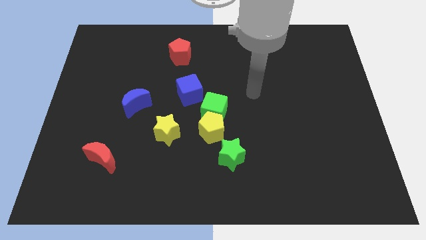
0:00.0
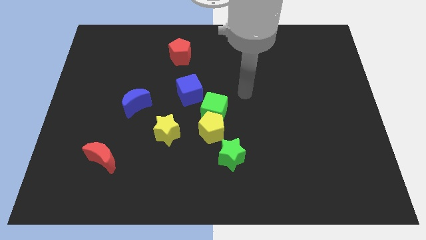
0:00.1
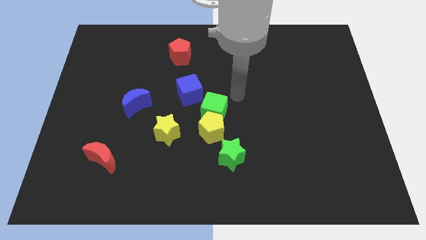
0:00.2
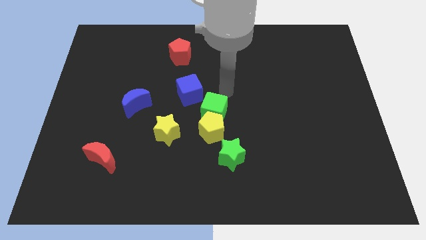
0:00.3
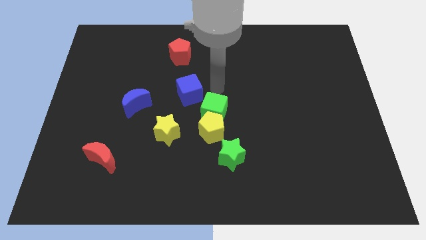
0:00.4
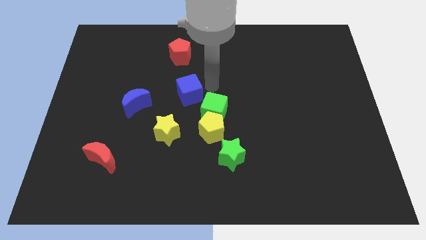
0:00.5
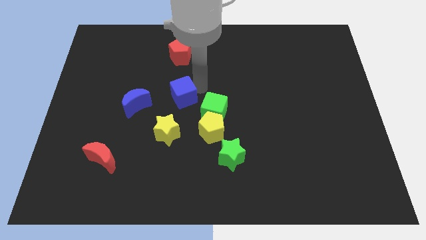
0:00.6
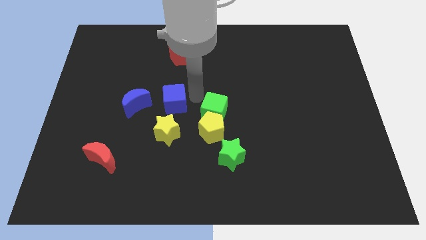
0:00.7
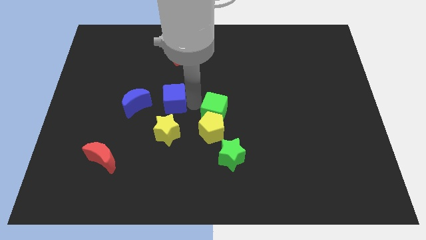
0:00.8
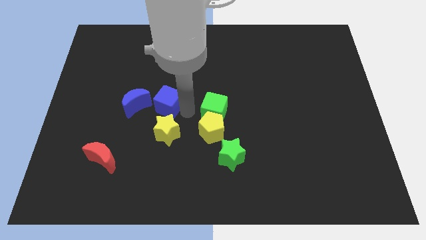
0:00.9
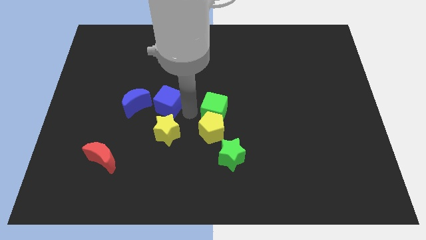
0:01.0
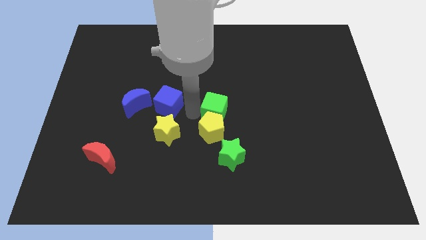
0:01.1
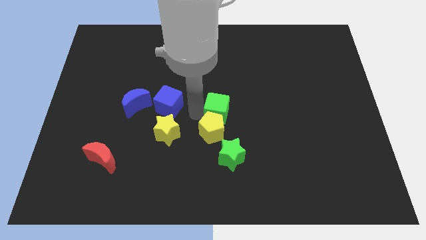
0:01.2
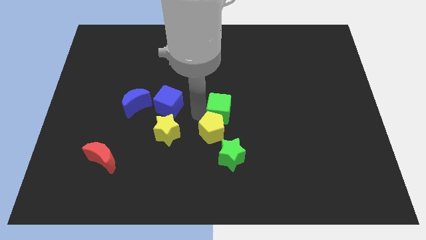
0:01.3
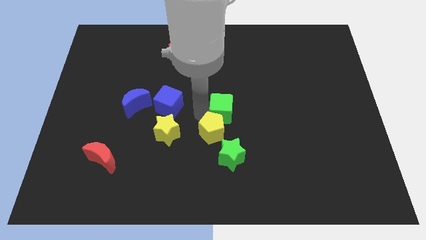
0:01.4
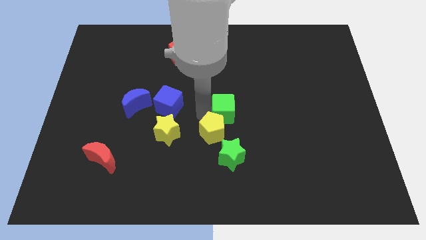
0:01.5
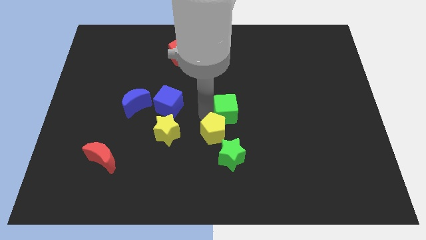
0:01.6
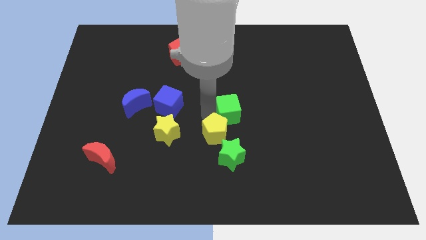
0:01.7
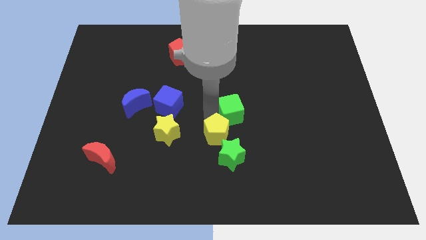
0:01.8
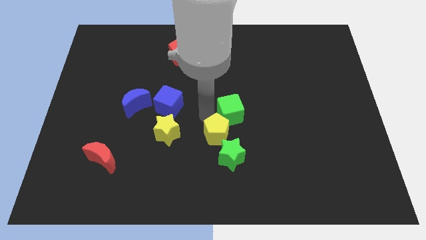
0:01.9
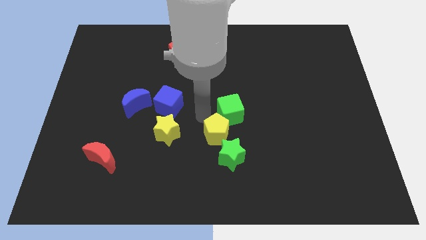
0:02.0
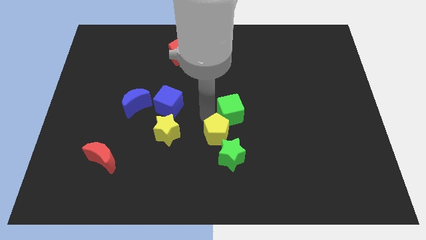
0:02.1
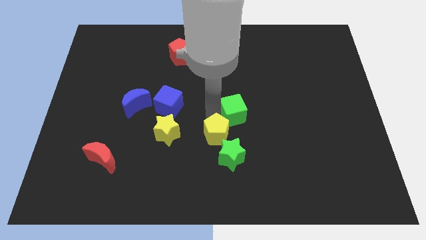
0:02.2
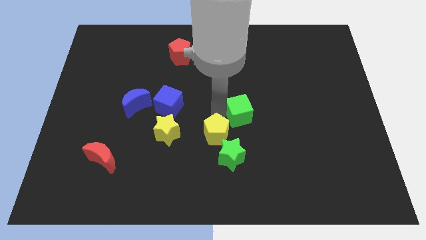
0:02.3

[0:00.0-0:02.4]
separate the green cube from the yellow pentagon and blue cube

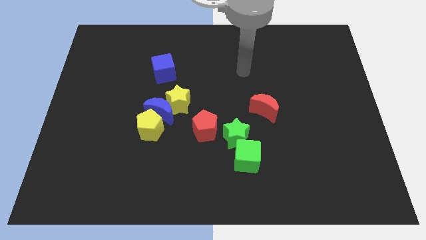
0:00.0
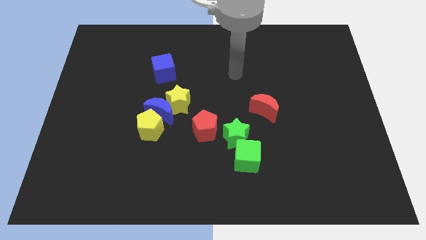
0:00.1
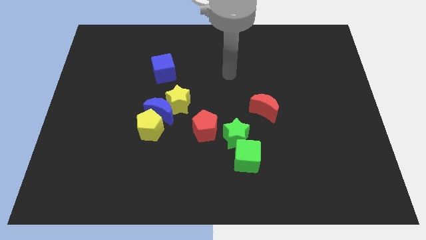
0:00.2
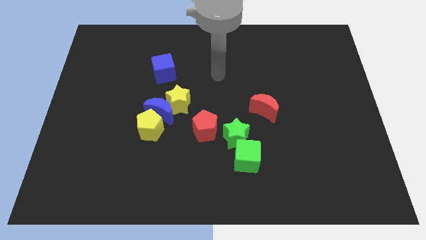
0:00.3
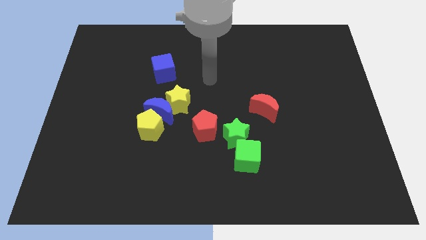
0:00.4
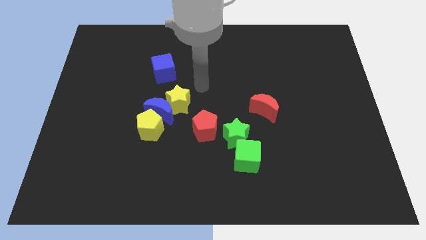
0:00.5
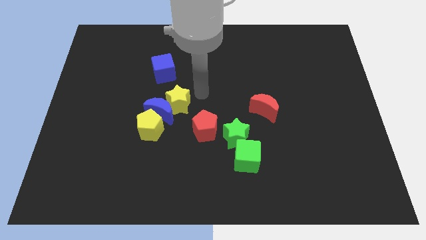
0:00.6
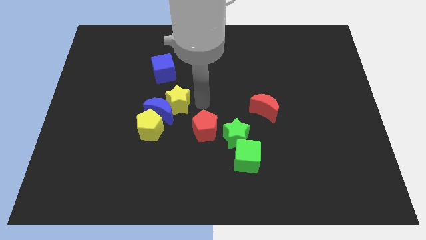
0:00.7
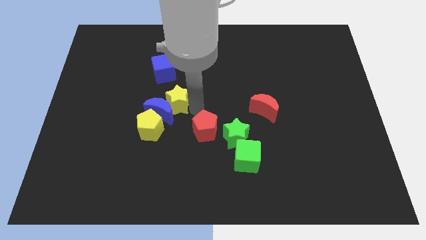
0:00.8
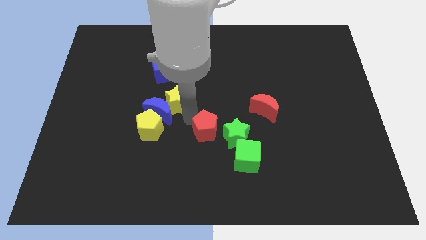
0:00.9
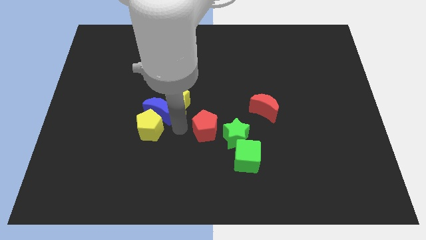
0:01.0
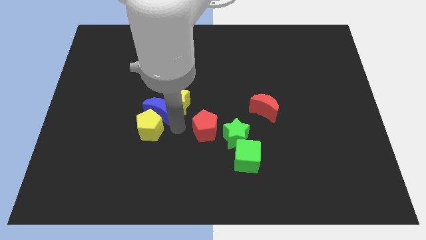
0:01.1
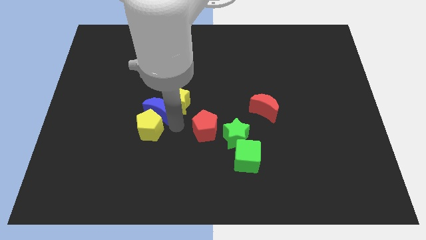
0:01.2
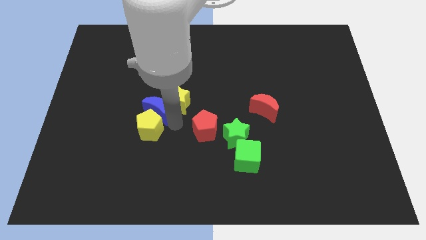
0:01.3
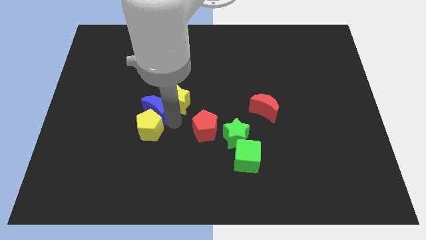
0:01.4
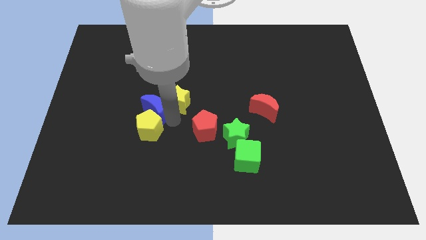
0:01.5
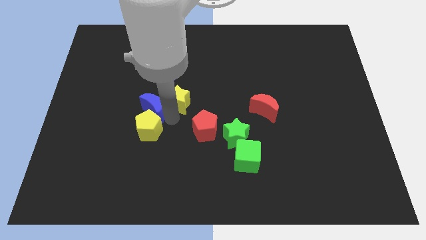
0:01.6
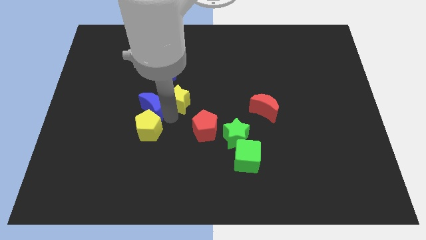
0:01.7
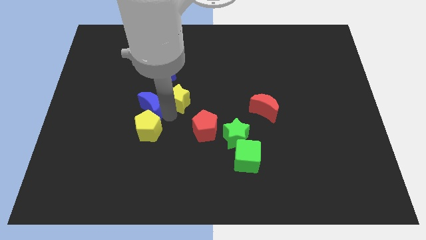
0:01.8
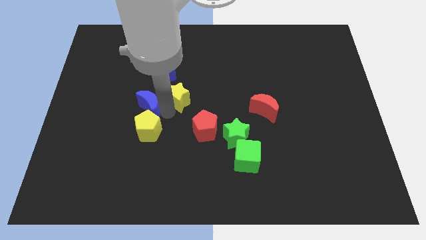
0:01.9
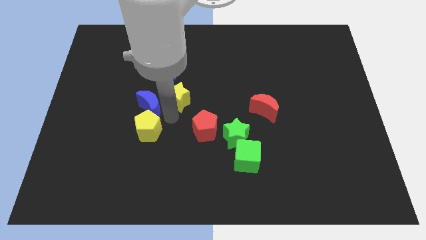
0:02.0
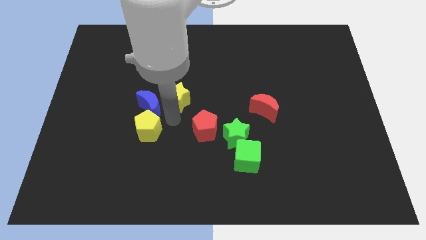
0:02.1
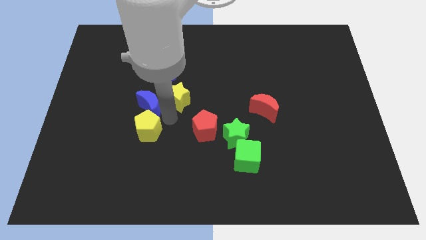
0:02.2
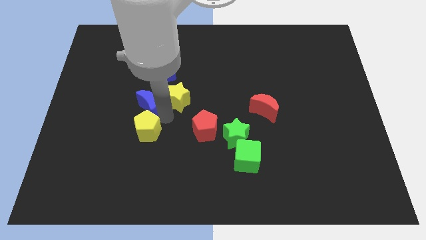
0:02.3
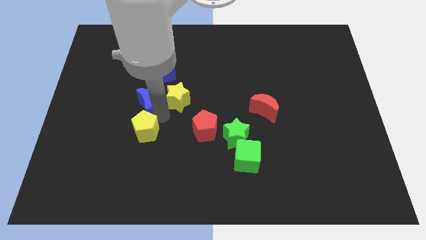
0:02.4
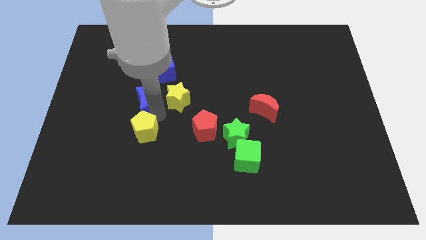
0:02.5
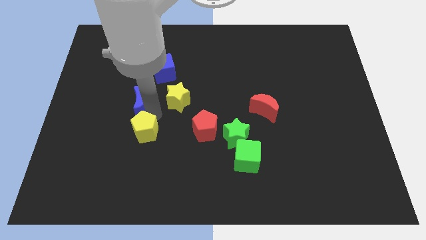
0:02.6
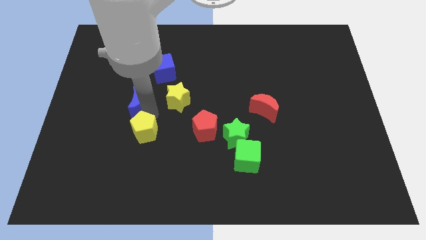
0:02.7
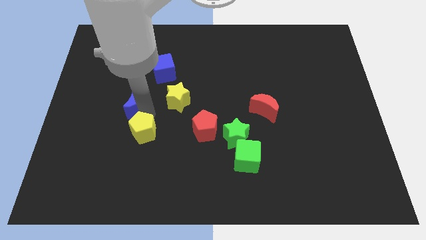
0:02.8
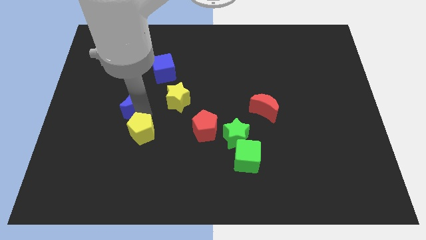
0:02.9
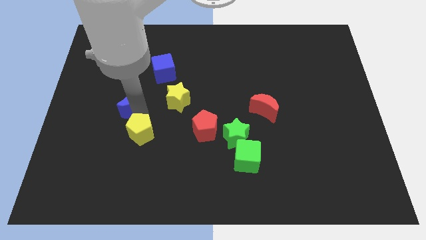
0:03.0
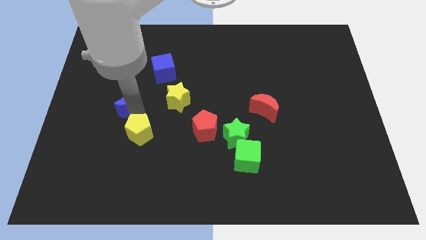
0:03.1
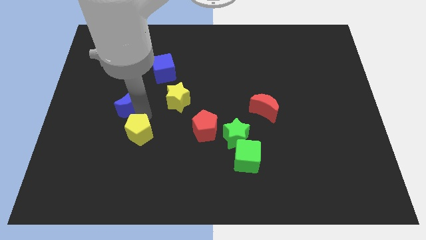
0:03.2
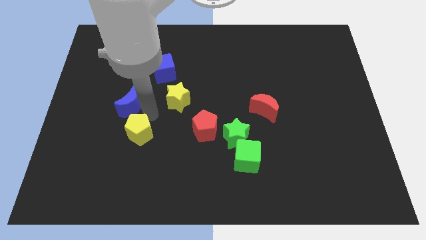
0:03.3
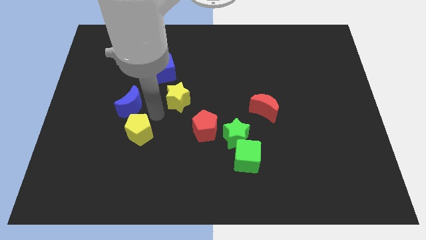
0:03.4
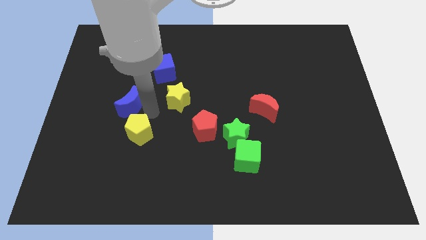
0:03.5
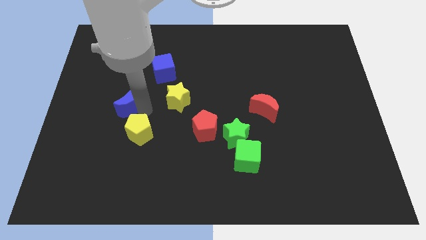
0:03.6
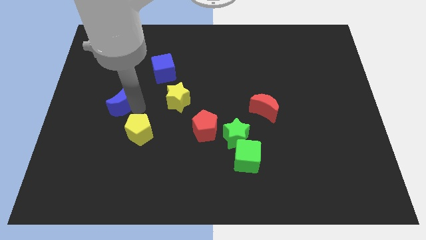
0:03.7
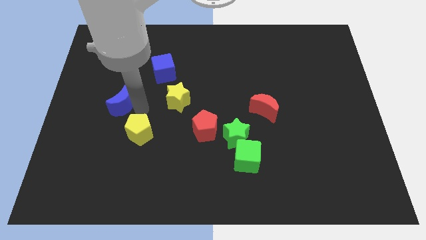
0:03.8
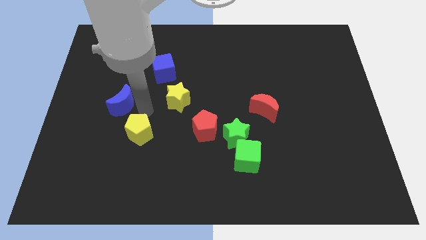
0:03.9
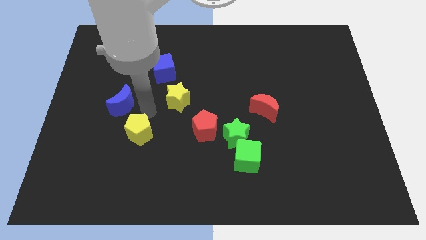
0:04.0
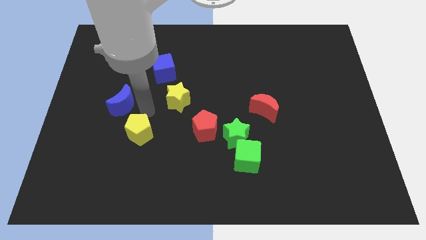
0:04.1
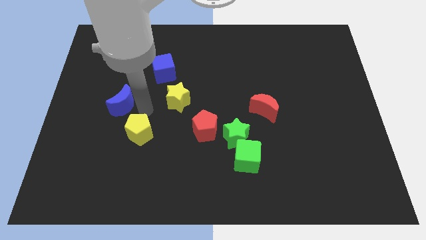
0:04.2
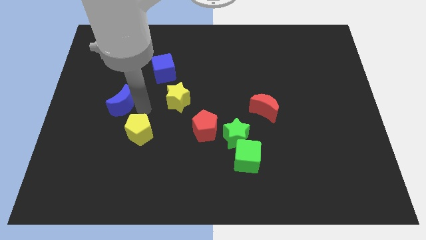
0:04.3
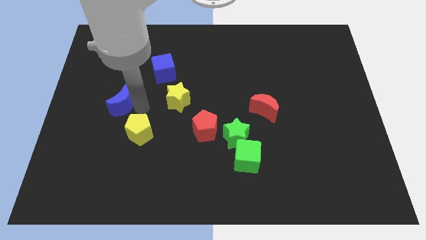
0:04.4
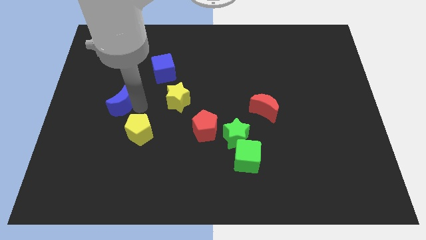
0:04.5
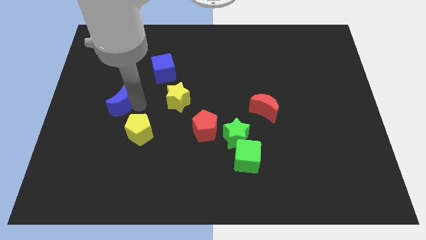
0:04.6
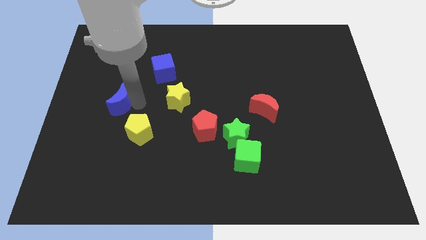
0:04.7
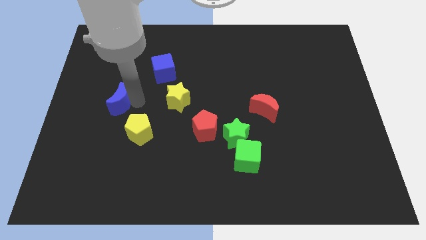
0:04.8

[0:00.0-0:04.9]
move the blue moon away from the yellow star and yellow pentagon

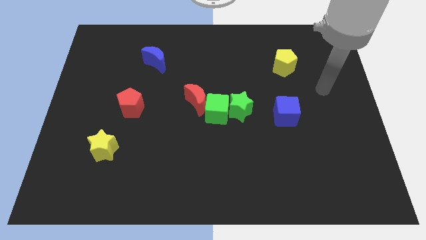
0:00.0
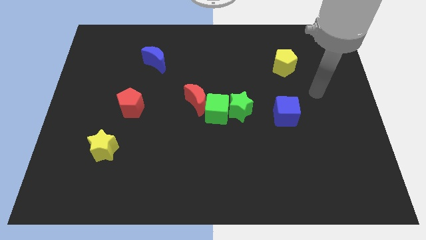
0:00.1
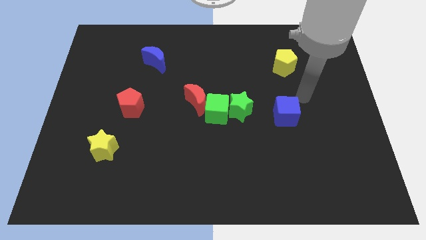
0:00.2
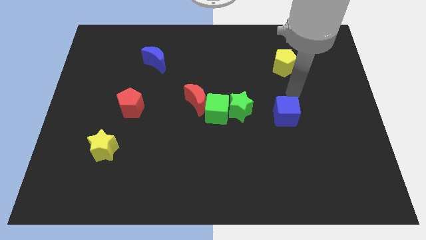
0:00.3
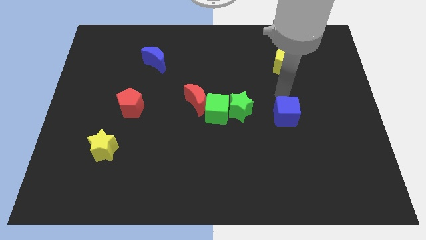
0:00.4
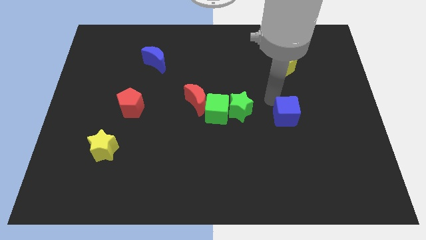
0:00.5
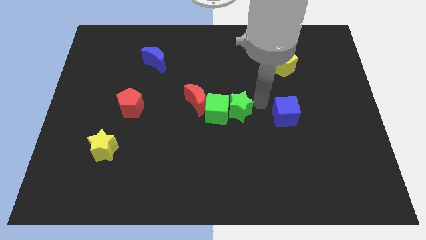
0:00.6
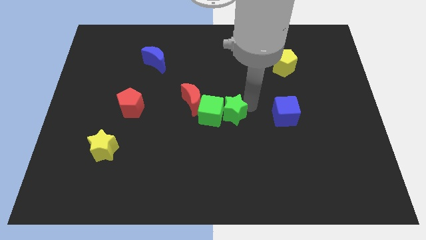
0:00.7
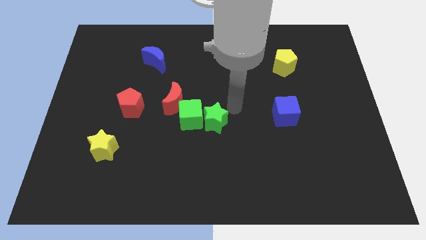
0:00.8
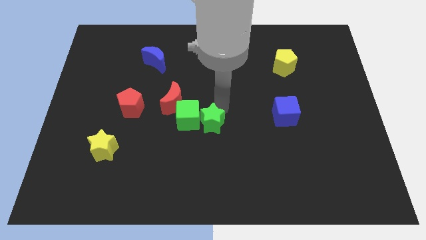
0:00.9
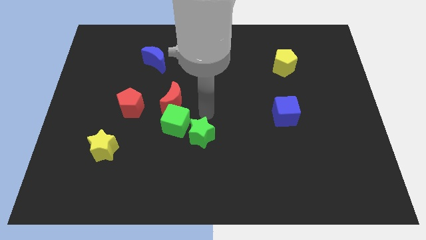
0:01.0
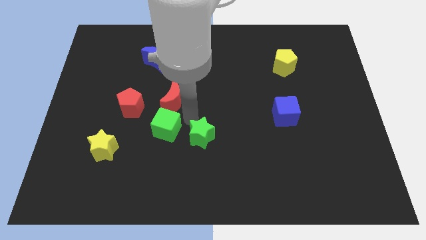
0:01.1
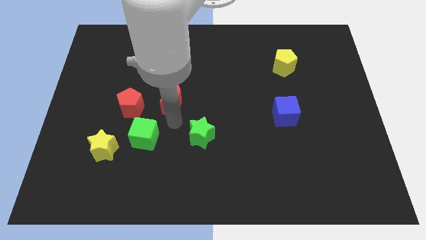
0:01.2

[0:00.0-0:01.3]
move the red moon away from the green cube

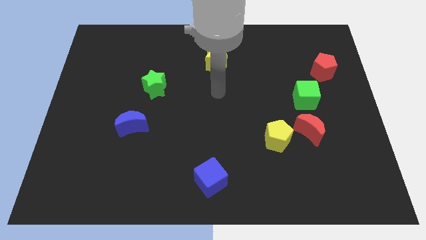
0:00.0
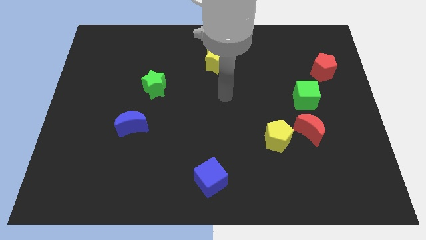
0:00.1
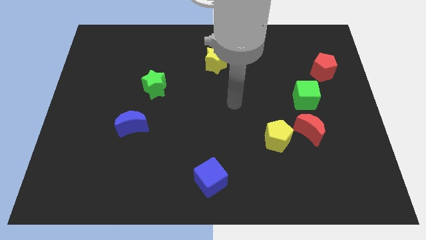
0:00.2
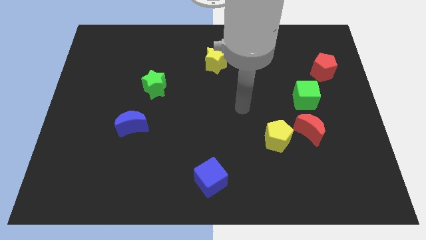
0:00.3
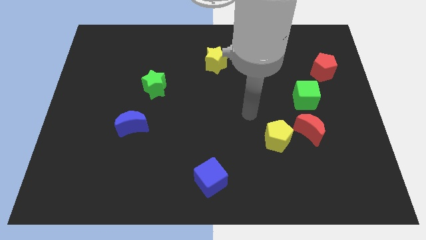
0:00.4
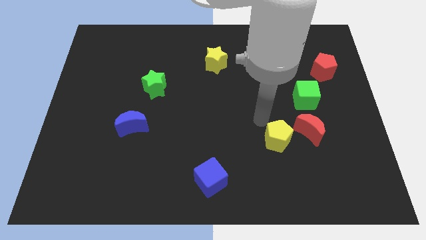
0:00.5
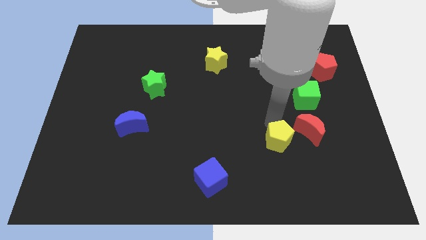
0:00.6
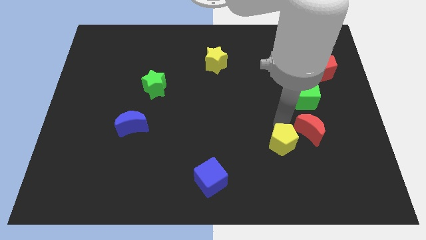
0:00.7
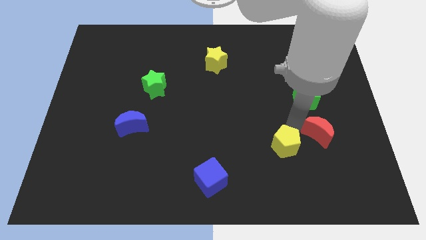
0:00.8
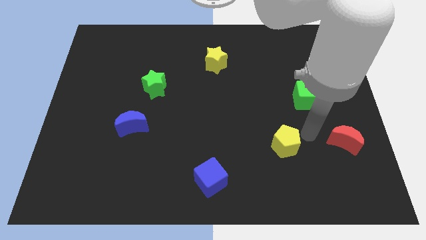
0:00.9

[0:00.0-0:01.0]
pull the yellow pentagon apart from the red moon

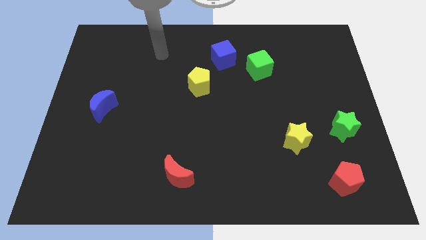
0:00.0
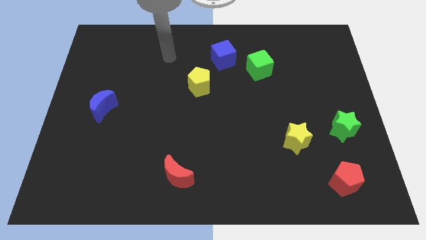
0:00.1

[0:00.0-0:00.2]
move the blue cube away from the green cube
